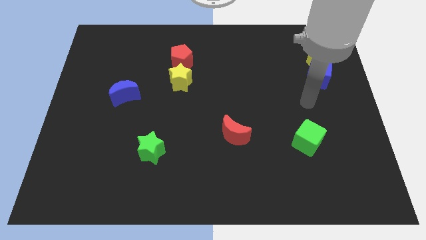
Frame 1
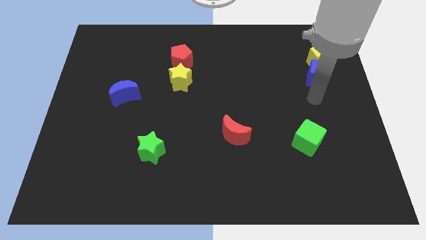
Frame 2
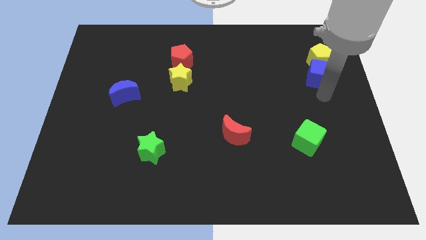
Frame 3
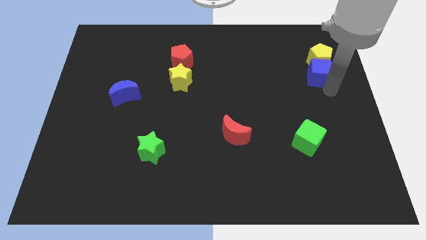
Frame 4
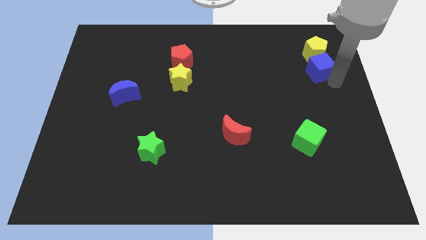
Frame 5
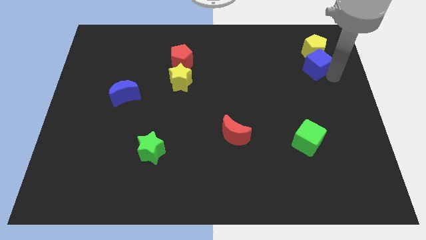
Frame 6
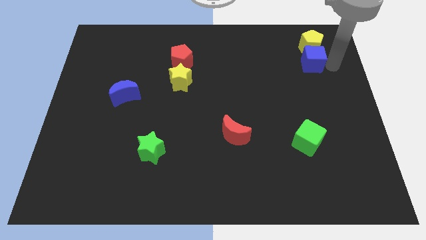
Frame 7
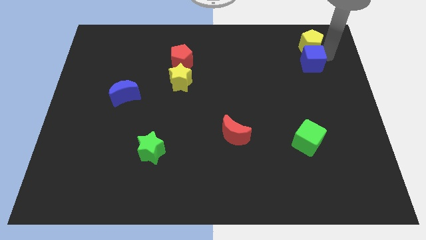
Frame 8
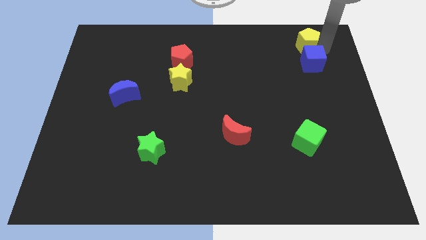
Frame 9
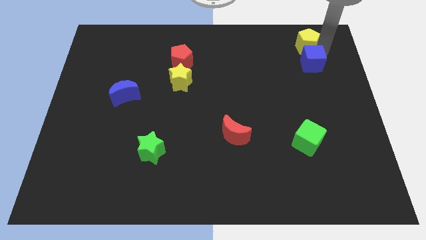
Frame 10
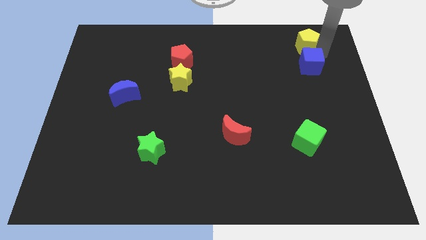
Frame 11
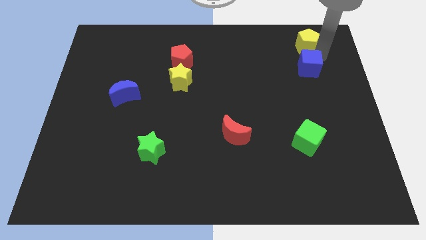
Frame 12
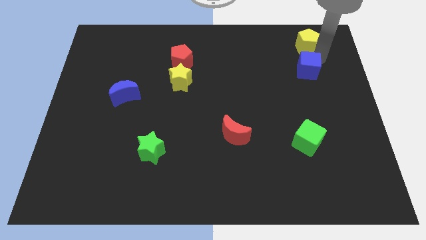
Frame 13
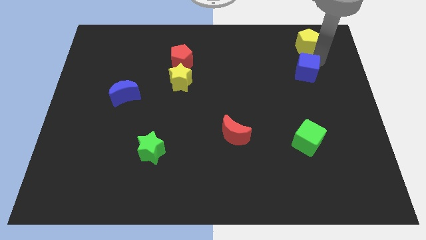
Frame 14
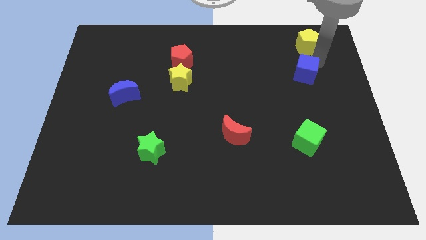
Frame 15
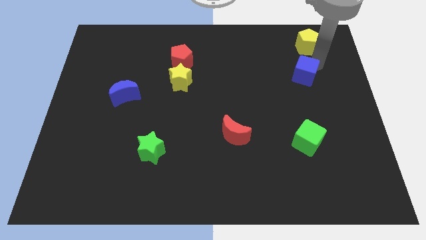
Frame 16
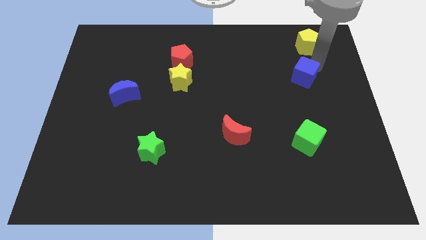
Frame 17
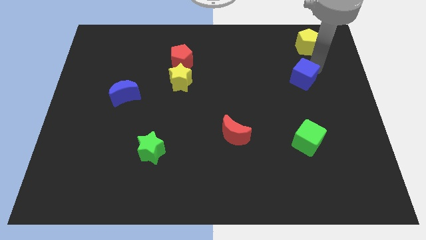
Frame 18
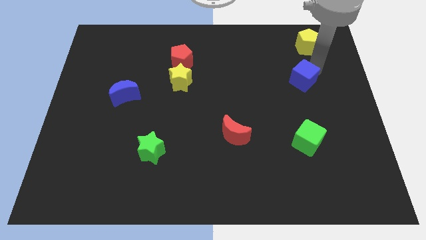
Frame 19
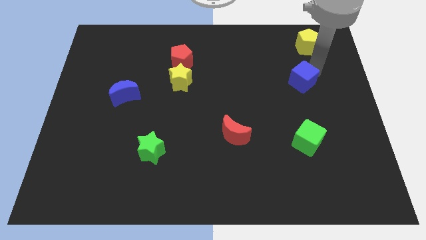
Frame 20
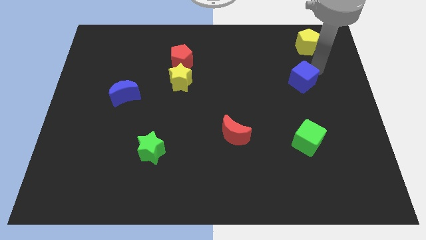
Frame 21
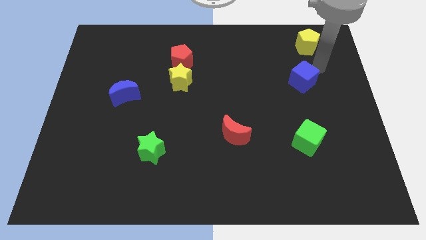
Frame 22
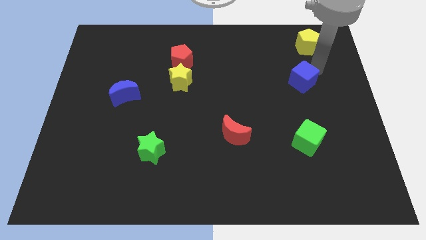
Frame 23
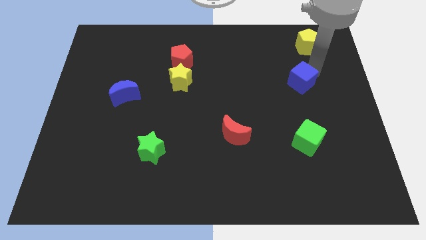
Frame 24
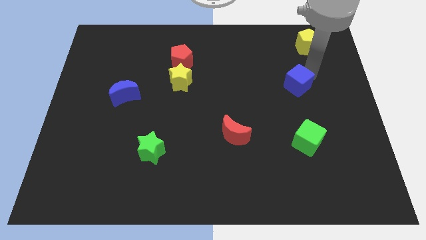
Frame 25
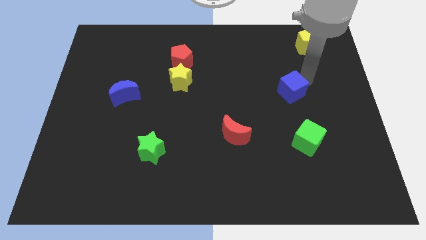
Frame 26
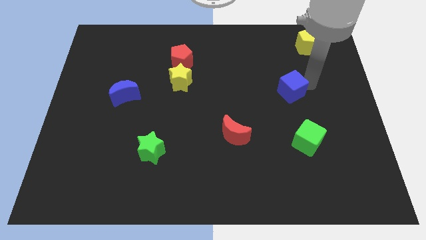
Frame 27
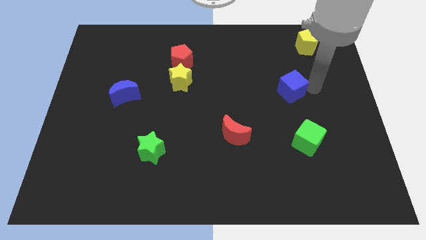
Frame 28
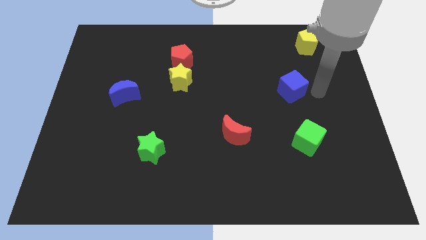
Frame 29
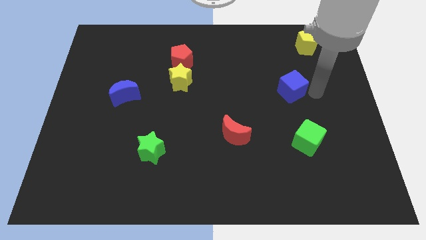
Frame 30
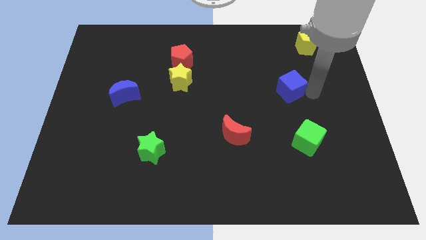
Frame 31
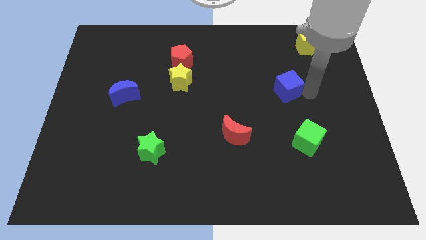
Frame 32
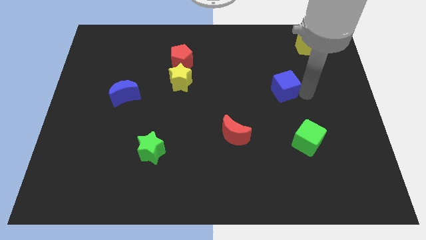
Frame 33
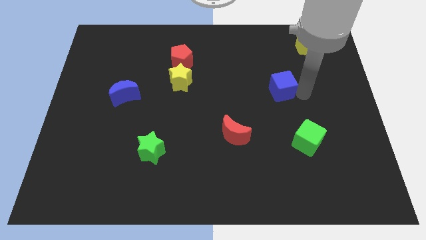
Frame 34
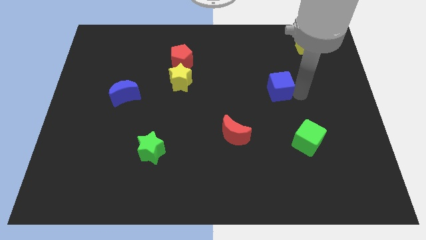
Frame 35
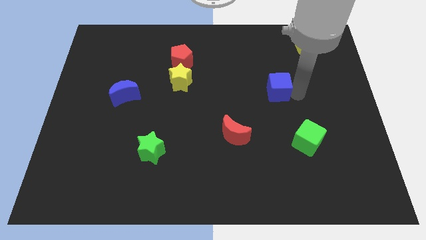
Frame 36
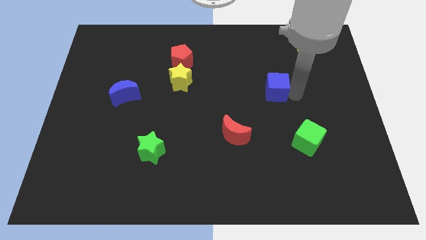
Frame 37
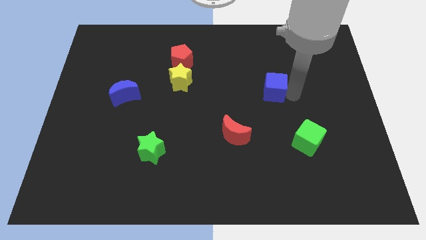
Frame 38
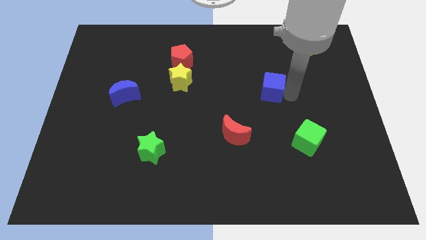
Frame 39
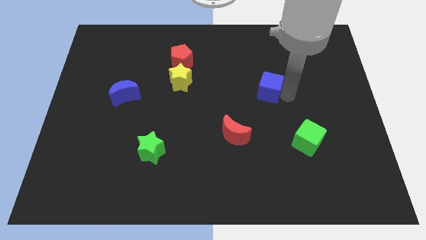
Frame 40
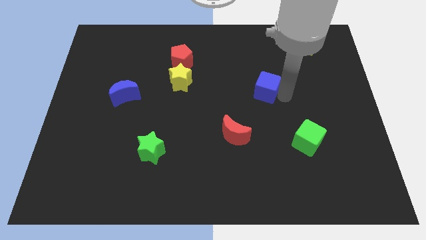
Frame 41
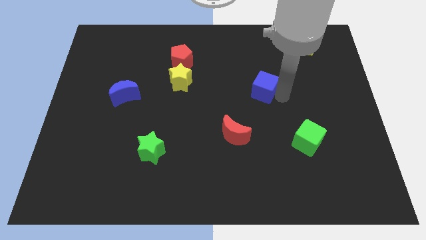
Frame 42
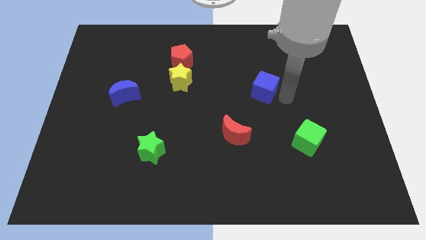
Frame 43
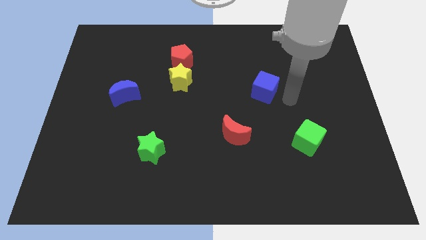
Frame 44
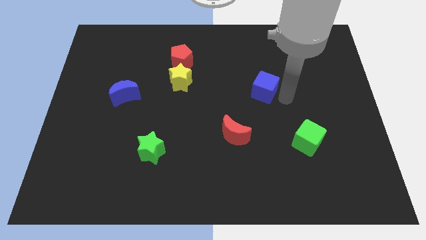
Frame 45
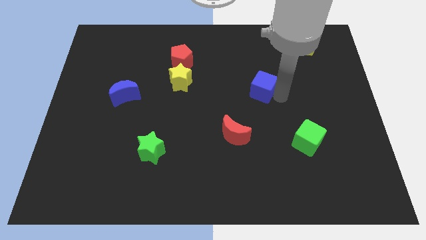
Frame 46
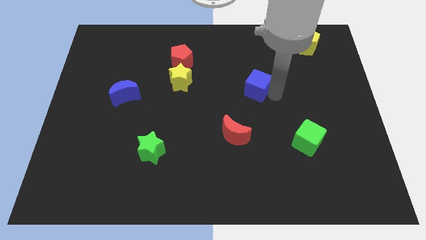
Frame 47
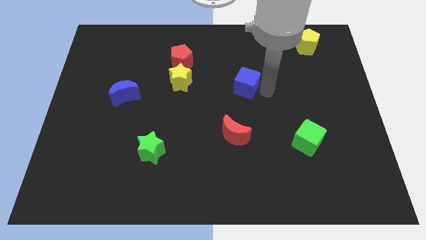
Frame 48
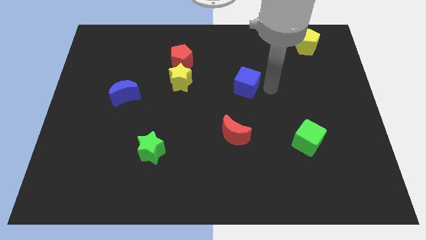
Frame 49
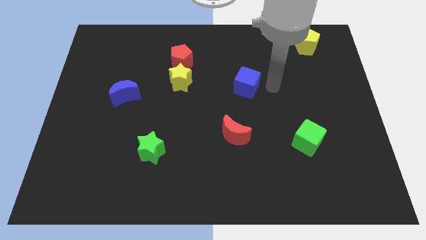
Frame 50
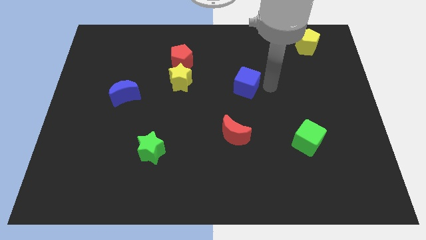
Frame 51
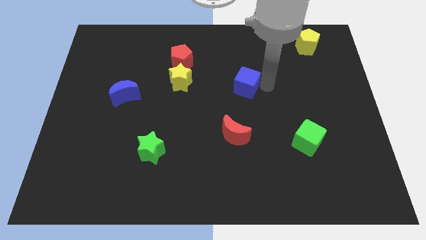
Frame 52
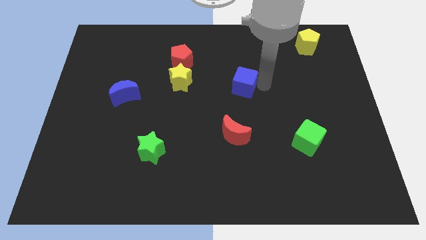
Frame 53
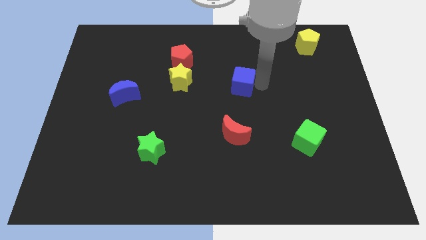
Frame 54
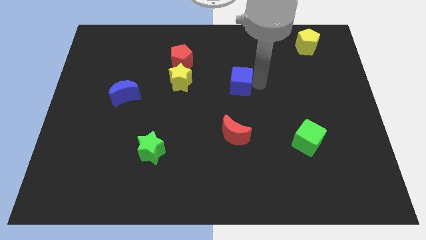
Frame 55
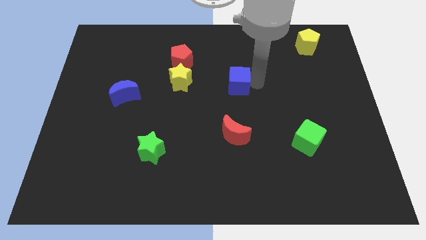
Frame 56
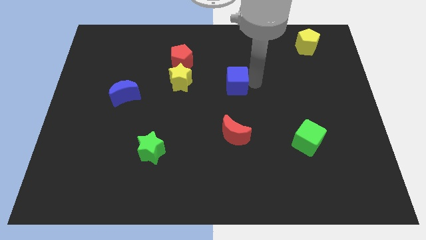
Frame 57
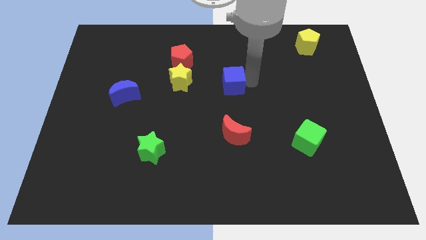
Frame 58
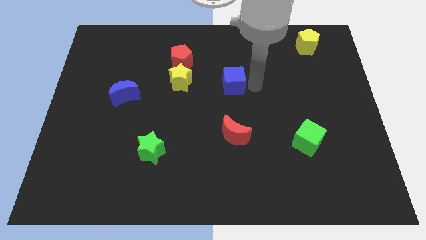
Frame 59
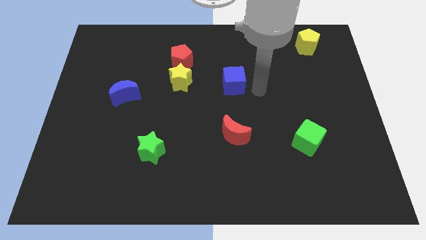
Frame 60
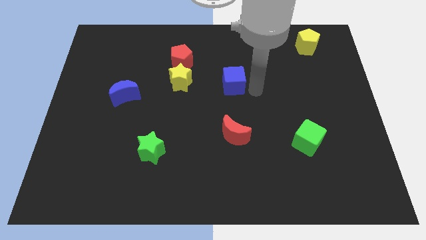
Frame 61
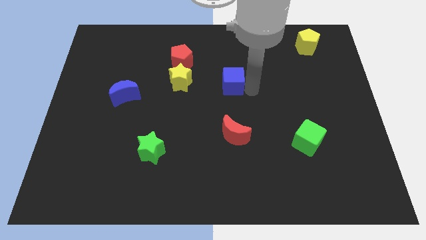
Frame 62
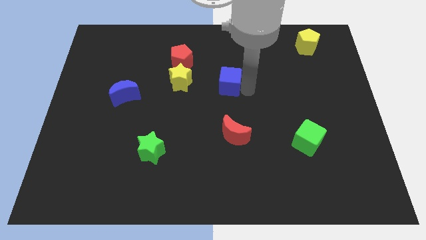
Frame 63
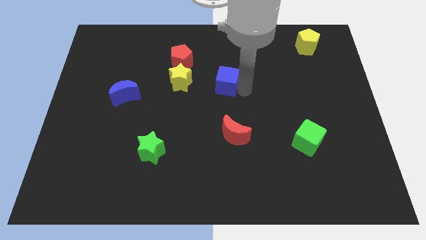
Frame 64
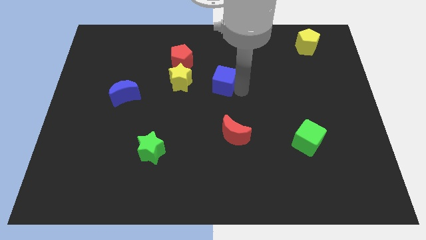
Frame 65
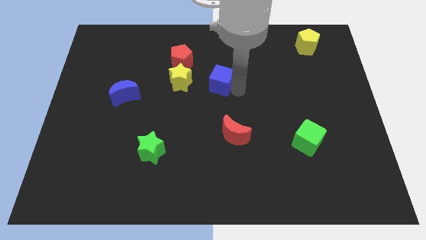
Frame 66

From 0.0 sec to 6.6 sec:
push the blue cube diagonally down and to the right of the red pentagon
